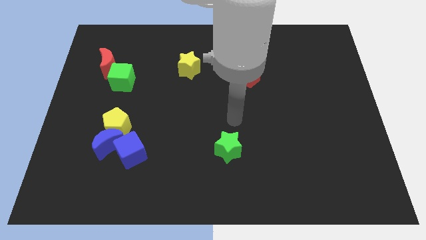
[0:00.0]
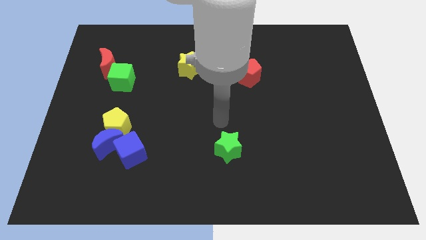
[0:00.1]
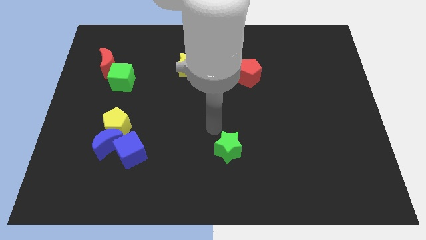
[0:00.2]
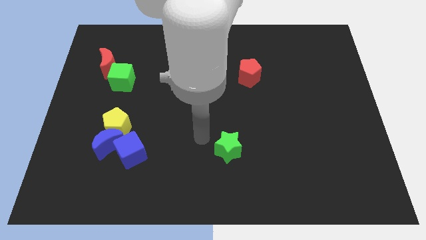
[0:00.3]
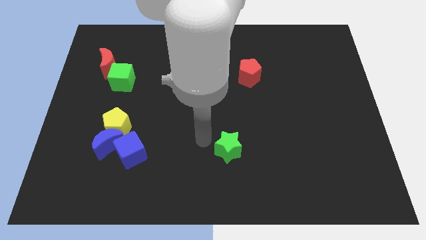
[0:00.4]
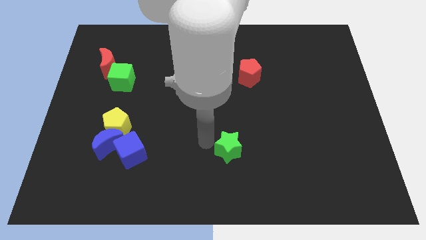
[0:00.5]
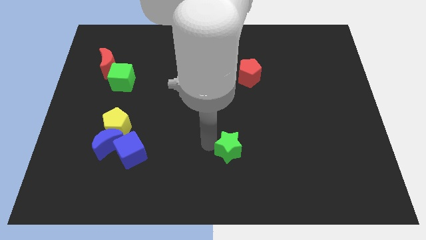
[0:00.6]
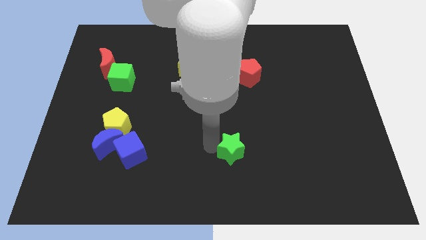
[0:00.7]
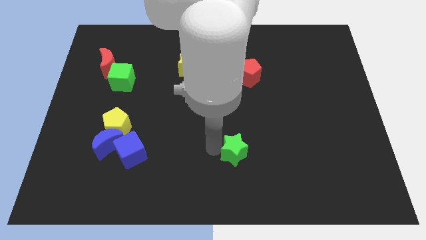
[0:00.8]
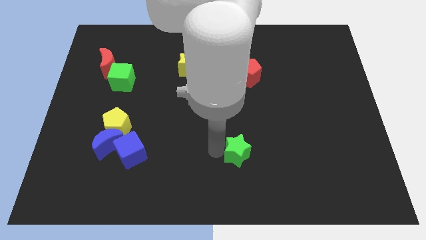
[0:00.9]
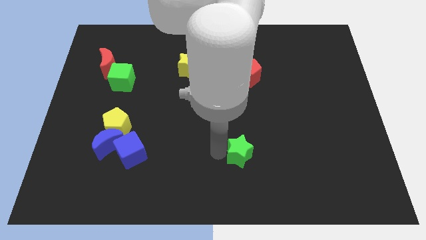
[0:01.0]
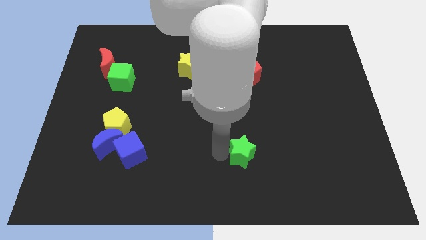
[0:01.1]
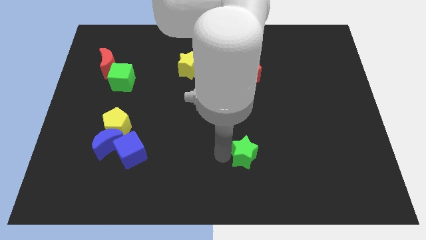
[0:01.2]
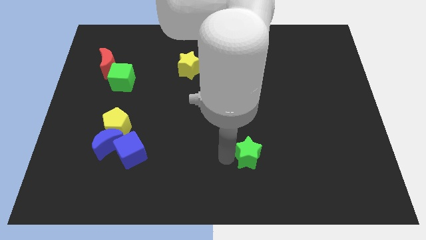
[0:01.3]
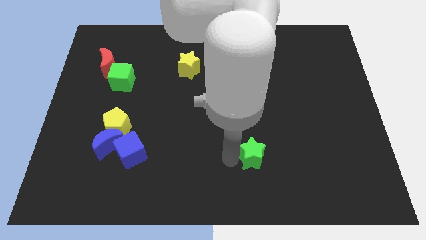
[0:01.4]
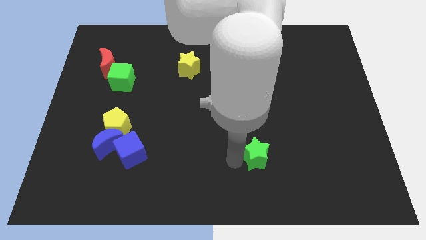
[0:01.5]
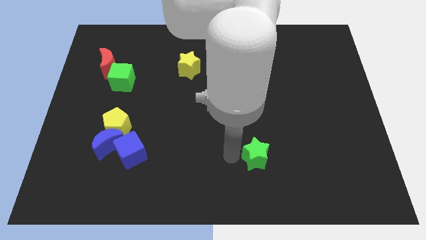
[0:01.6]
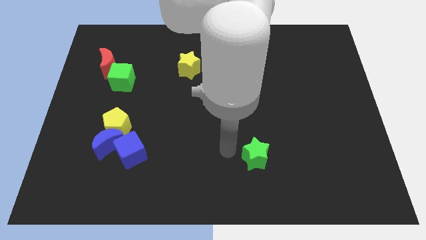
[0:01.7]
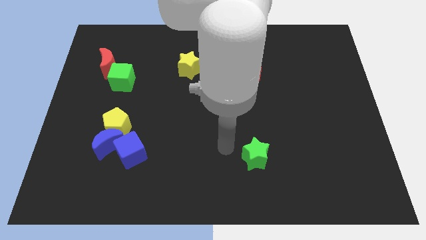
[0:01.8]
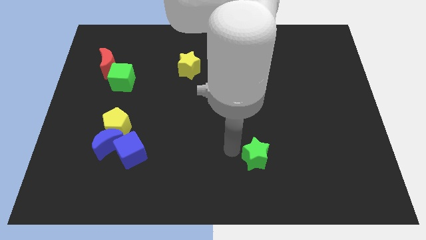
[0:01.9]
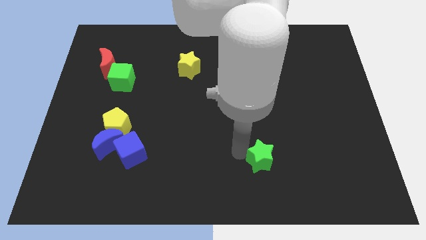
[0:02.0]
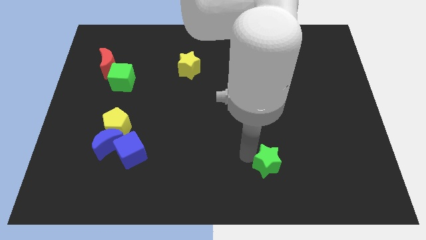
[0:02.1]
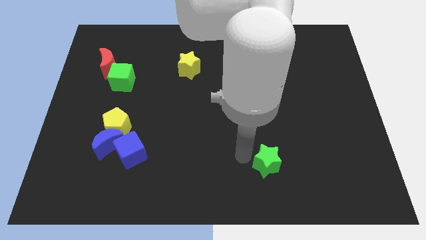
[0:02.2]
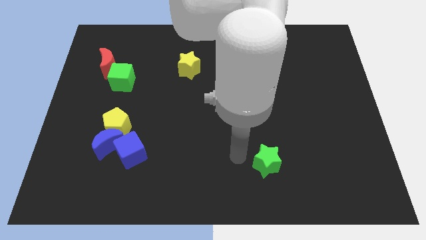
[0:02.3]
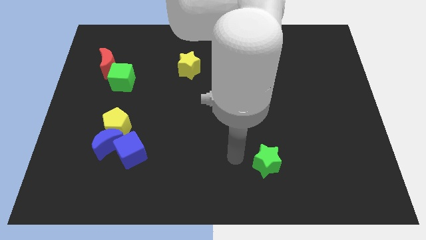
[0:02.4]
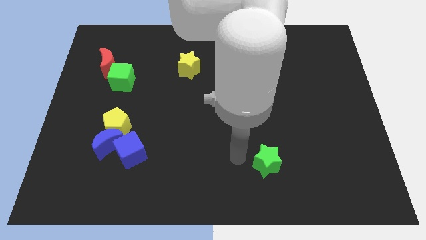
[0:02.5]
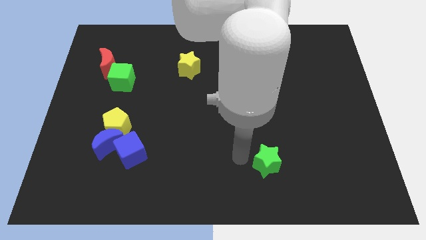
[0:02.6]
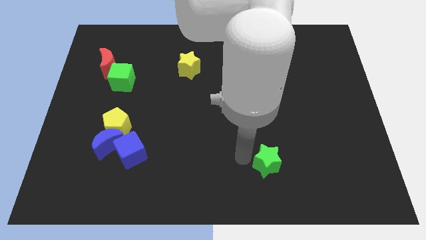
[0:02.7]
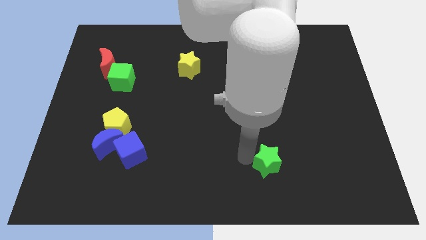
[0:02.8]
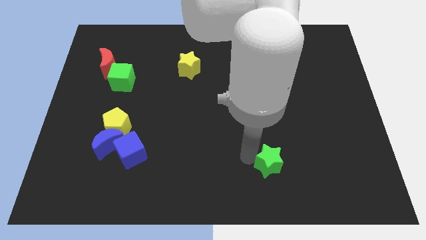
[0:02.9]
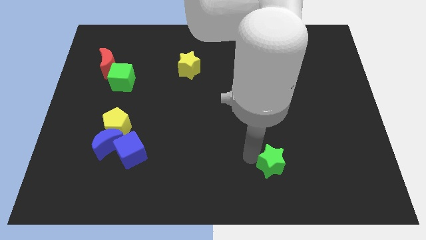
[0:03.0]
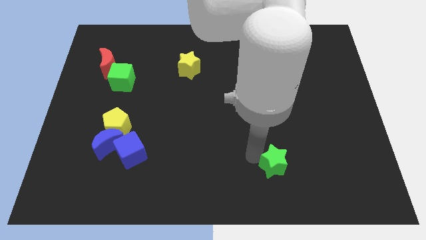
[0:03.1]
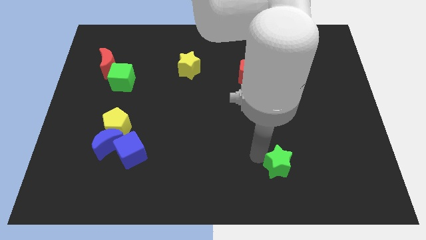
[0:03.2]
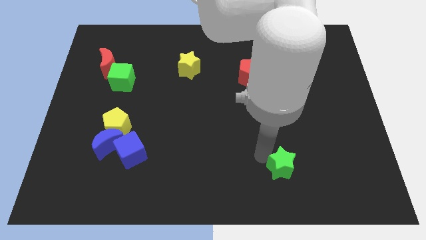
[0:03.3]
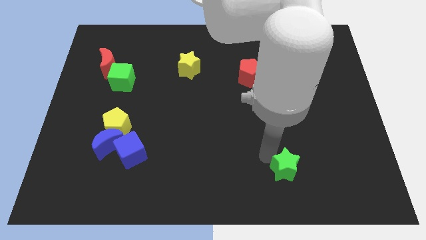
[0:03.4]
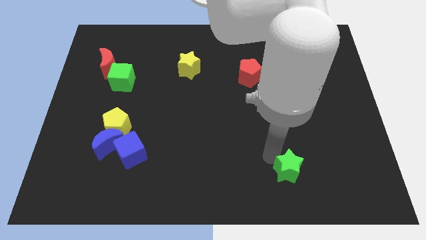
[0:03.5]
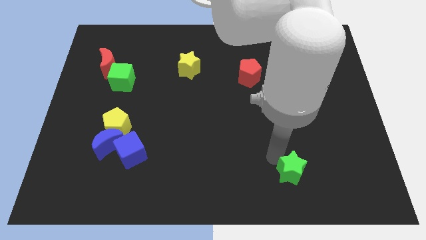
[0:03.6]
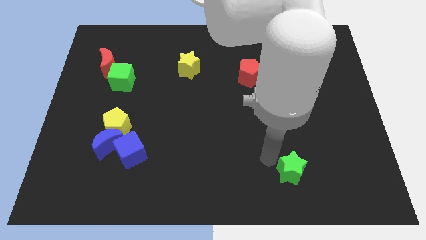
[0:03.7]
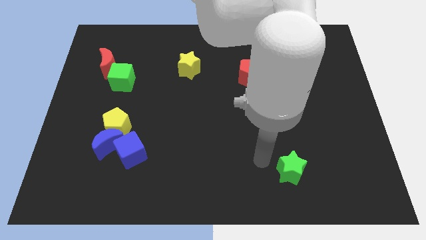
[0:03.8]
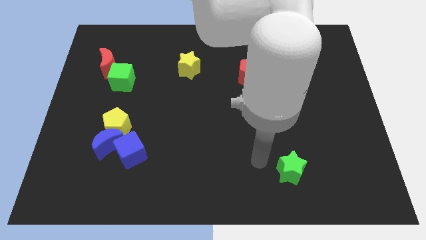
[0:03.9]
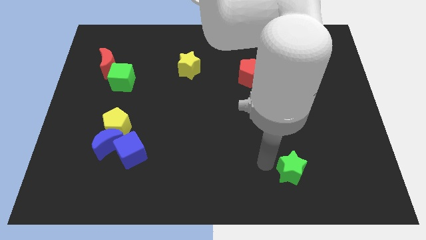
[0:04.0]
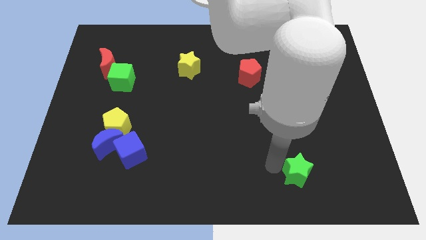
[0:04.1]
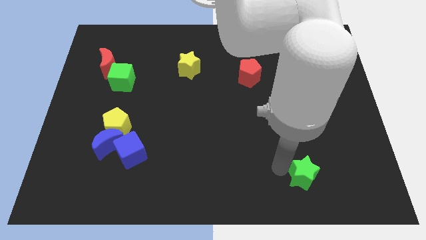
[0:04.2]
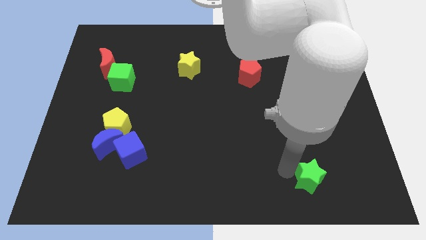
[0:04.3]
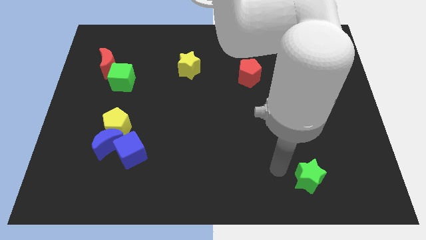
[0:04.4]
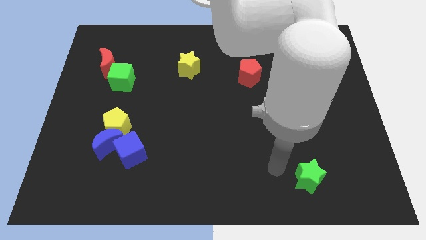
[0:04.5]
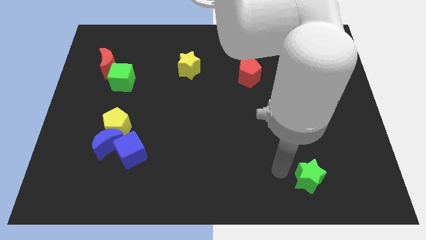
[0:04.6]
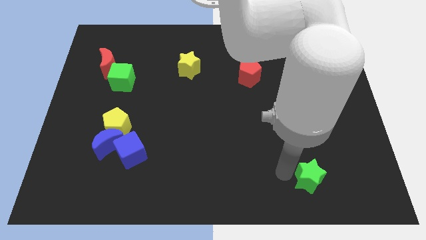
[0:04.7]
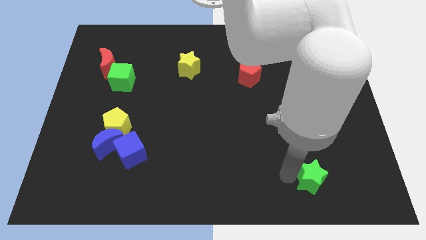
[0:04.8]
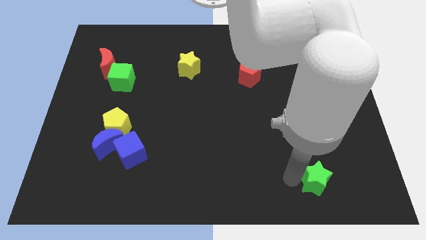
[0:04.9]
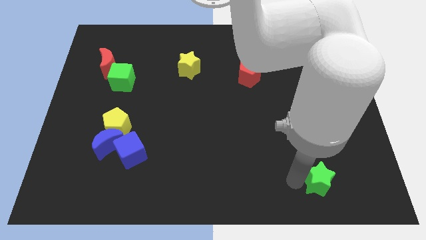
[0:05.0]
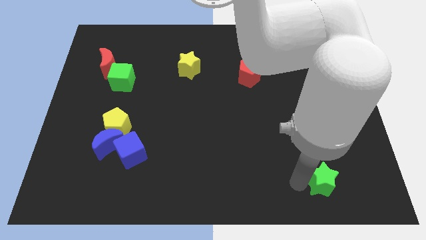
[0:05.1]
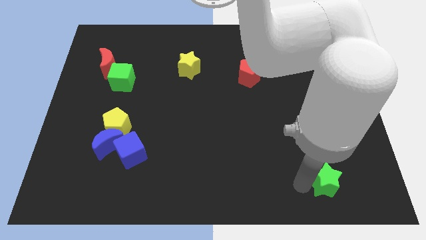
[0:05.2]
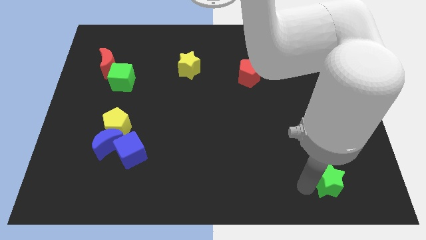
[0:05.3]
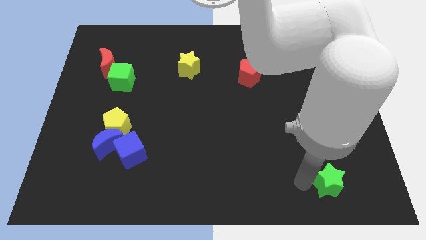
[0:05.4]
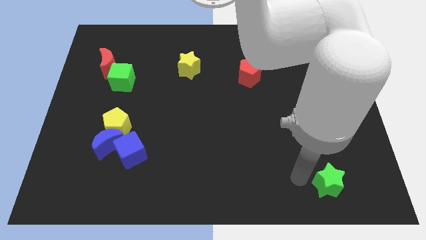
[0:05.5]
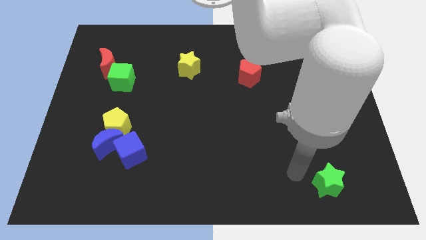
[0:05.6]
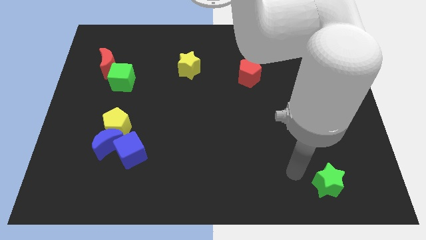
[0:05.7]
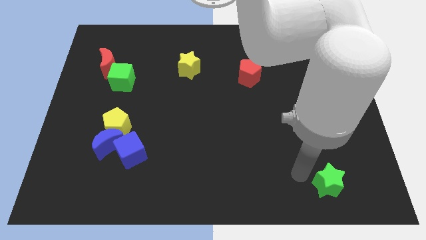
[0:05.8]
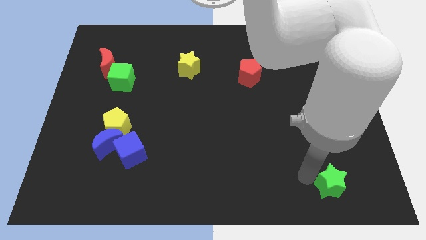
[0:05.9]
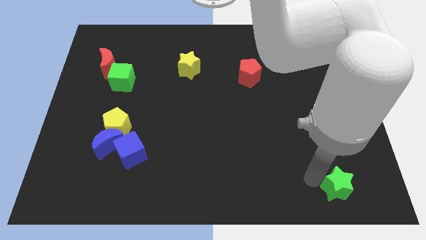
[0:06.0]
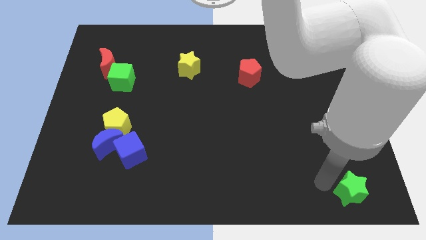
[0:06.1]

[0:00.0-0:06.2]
put the green star to the bottom right
